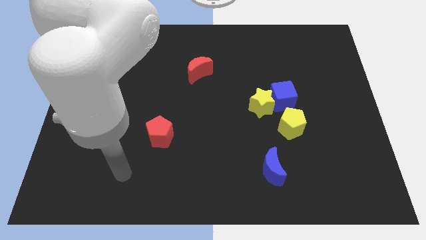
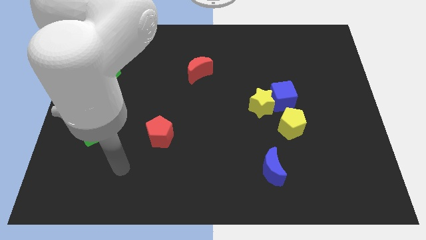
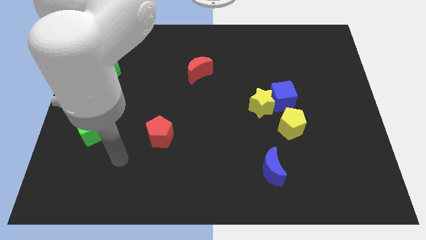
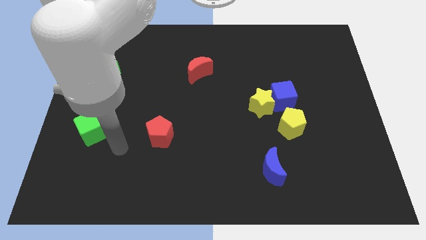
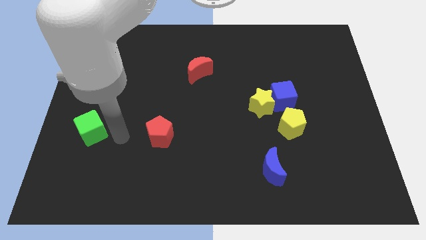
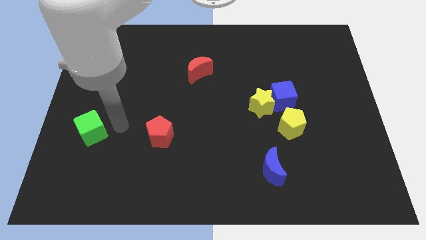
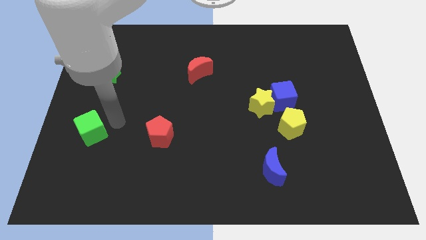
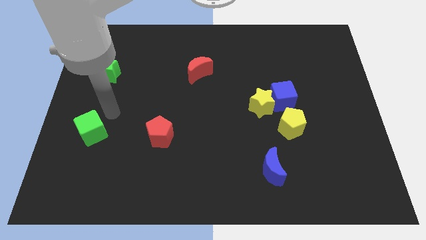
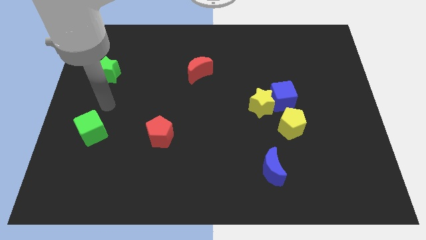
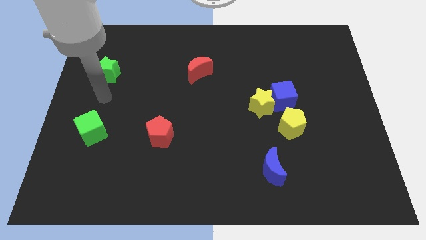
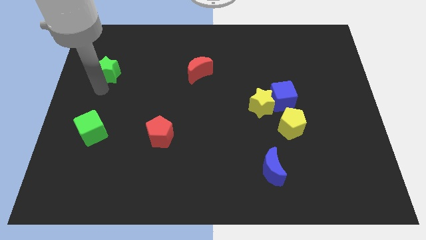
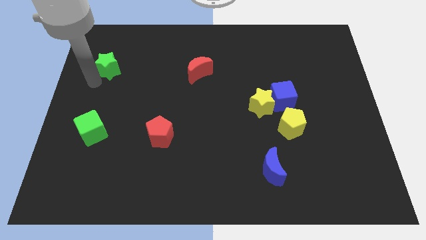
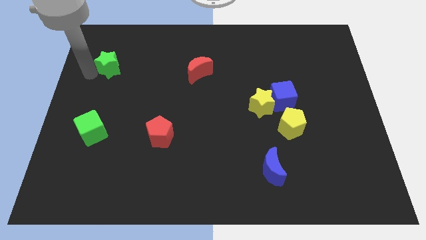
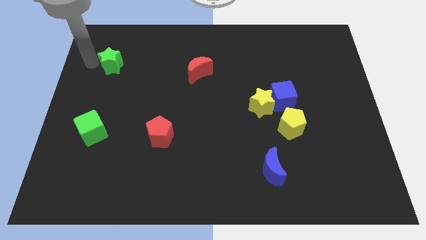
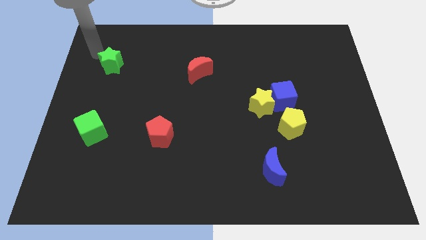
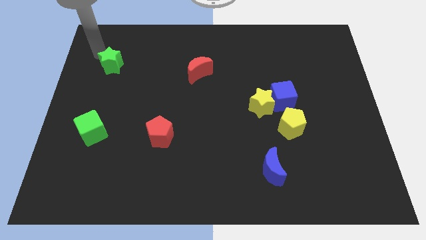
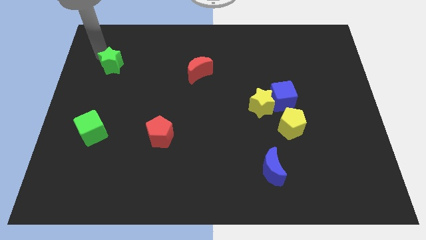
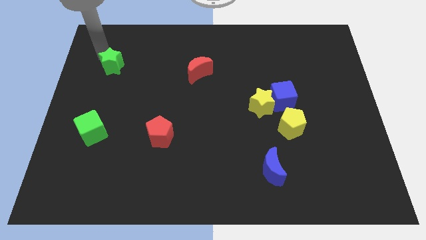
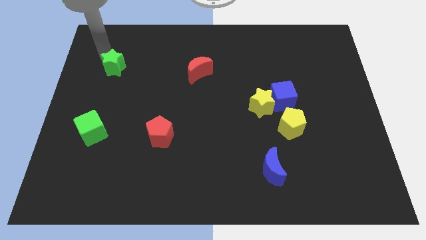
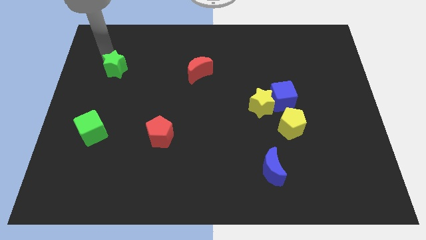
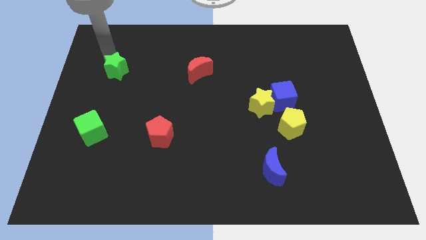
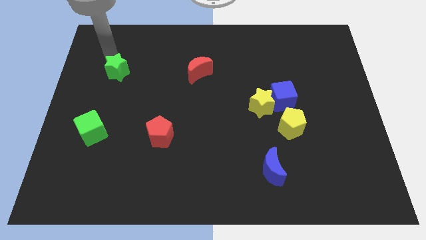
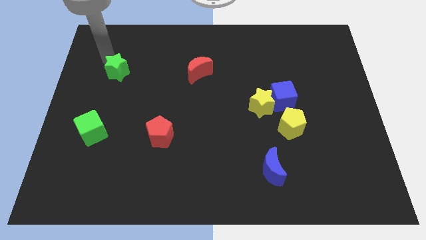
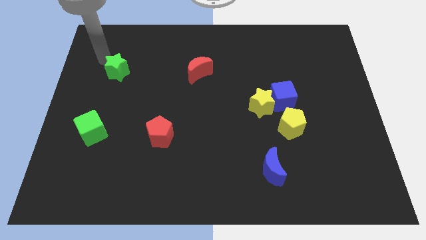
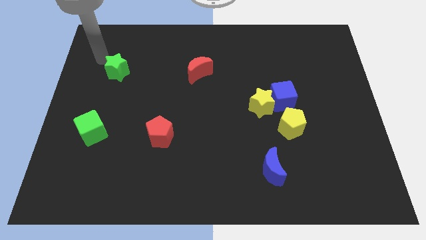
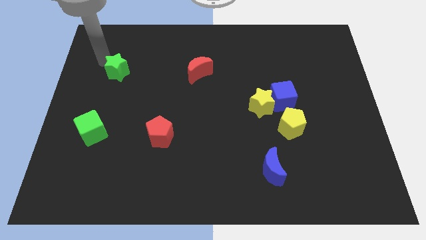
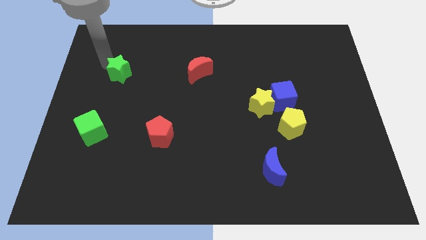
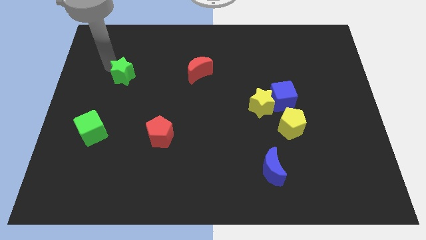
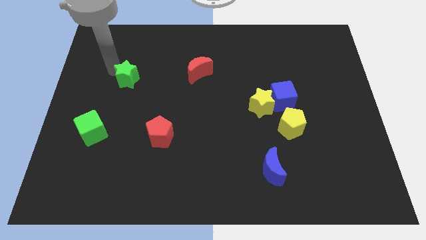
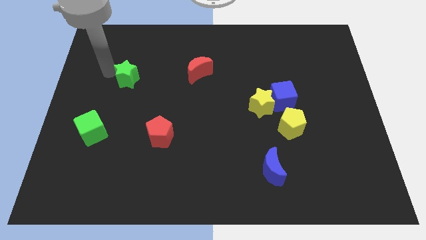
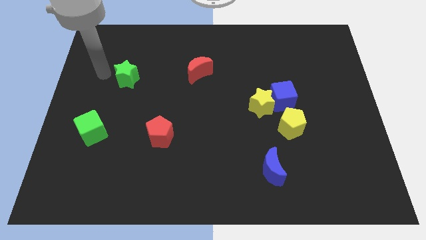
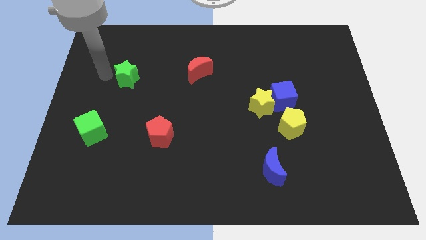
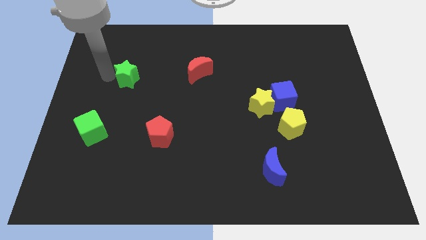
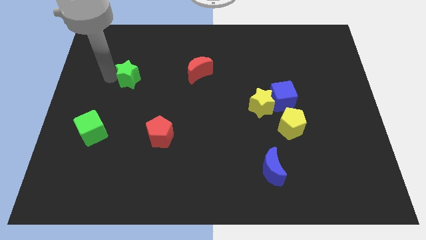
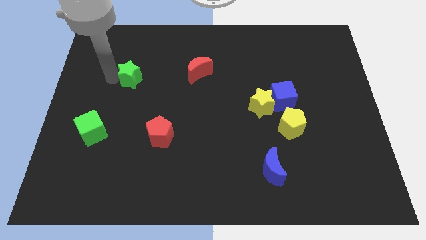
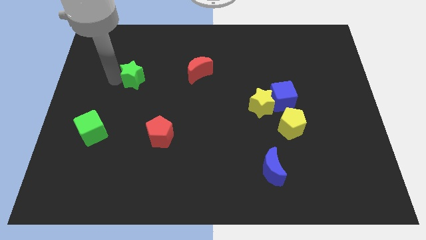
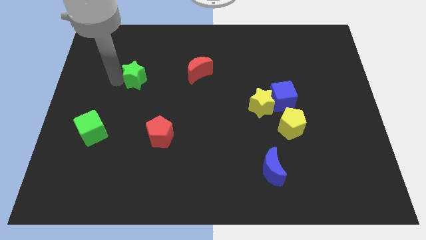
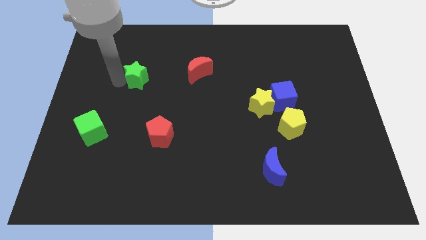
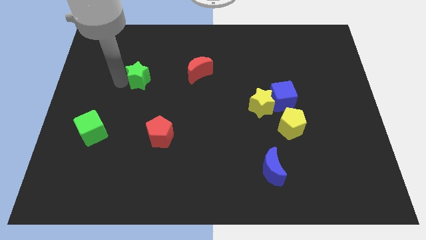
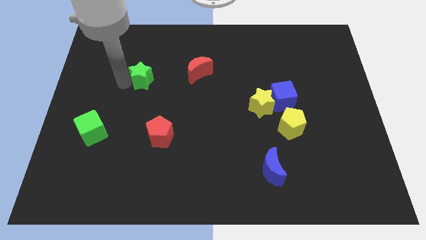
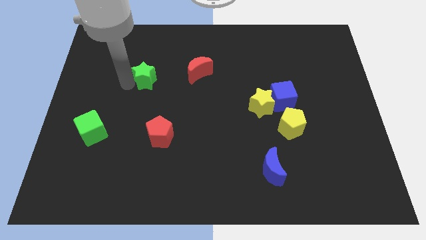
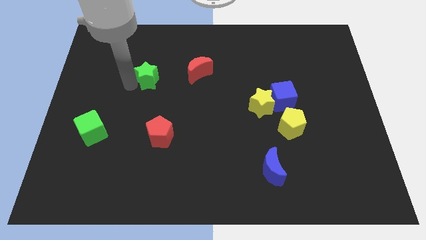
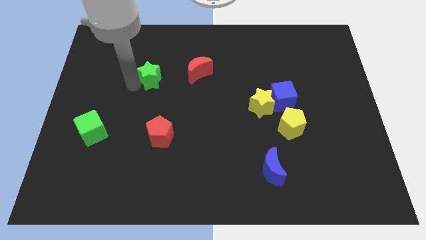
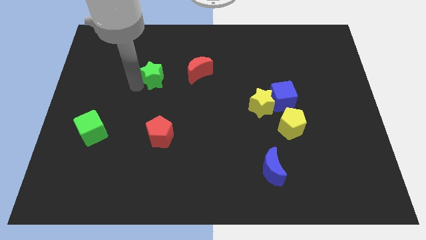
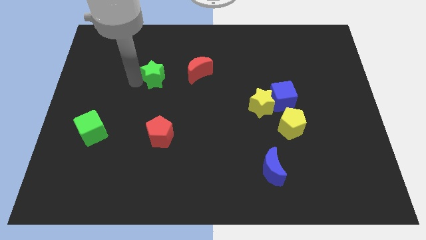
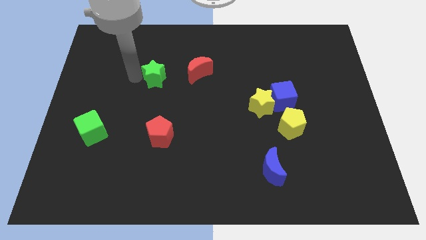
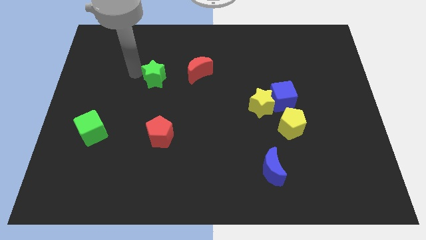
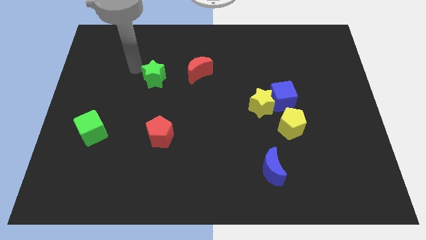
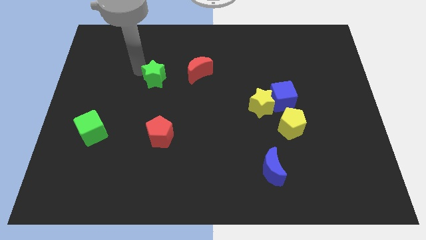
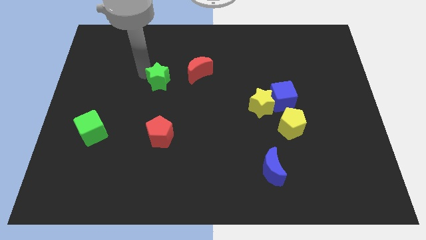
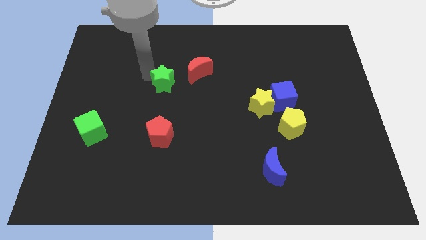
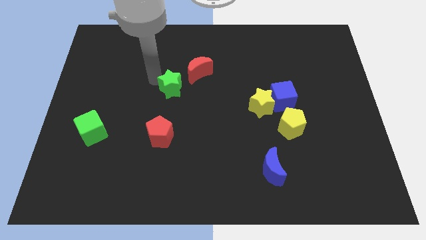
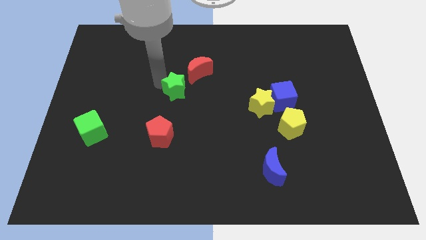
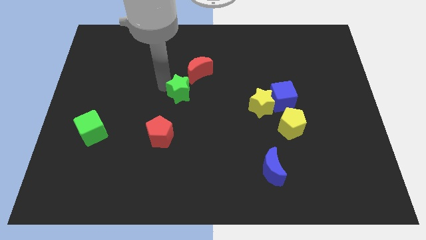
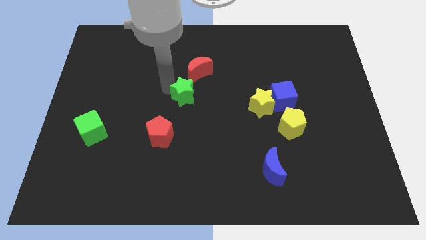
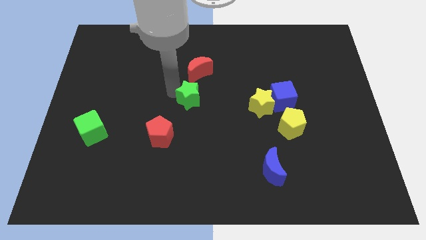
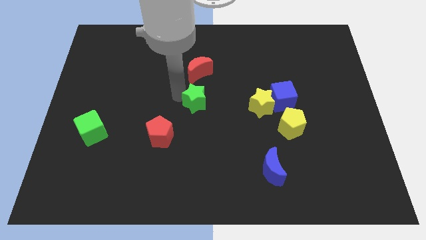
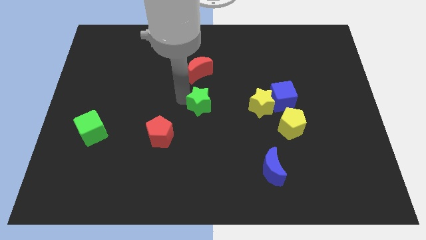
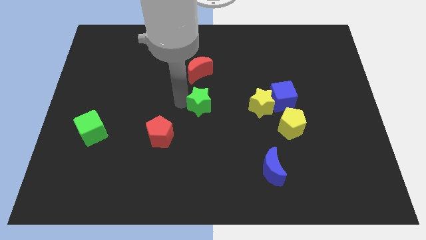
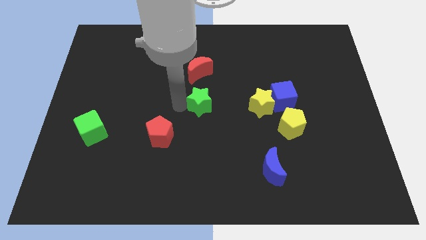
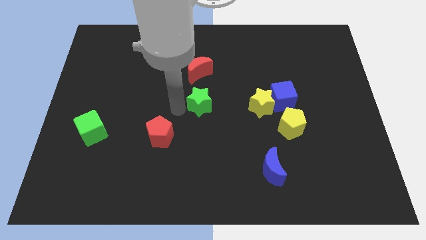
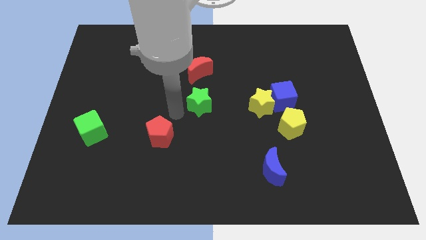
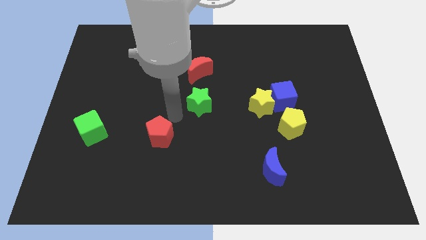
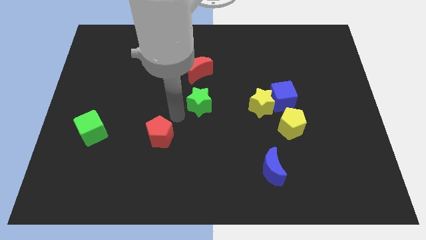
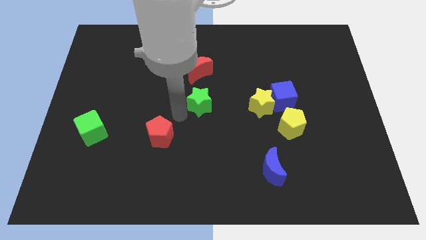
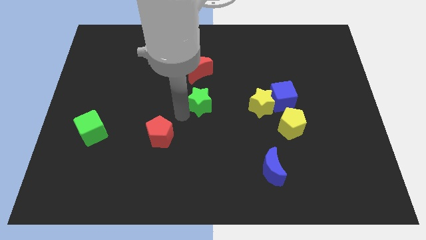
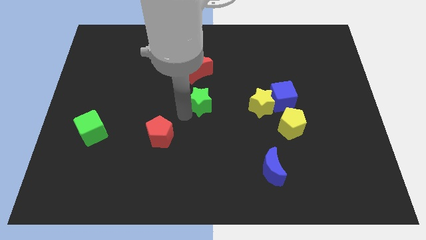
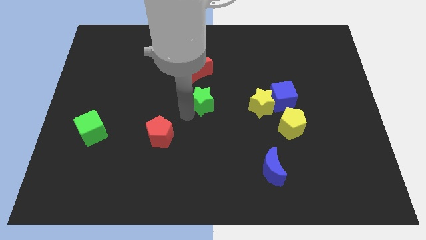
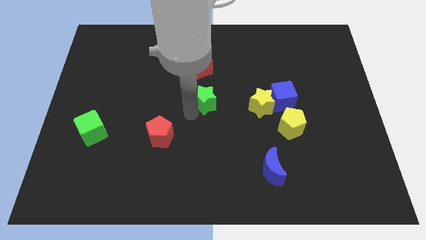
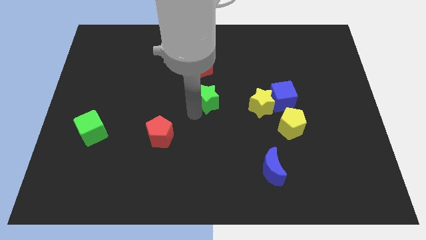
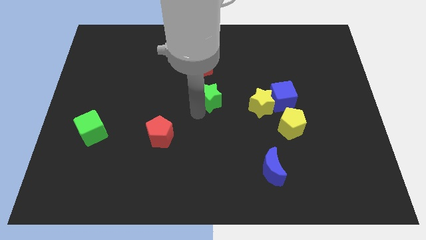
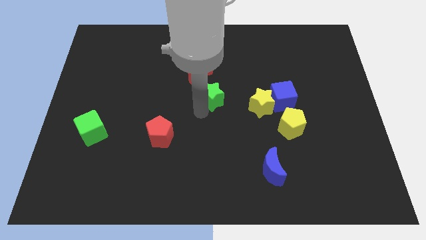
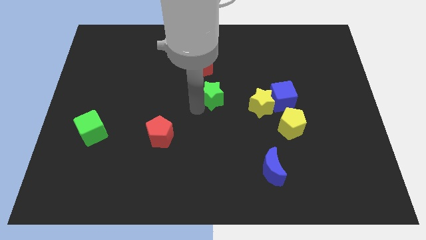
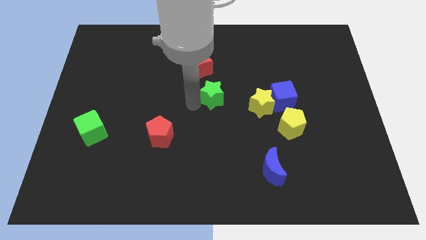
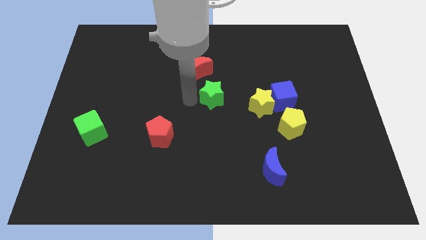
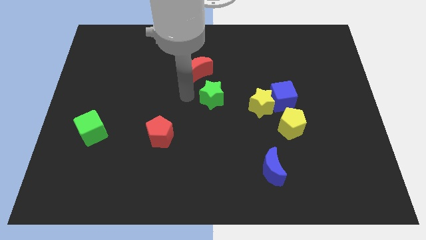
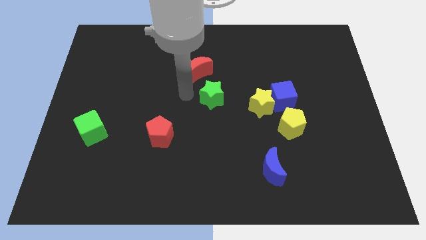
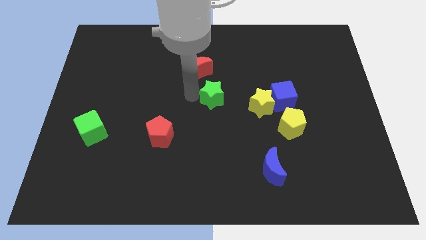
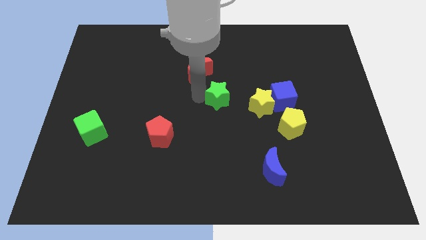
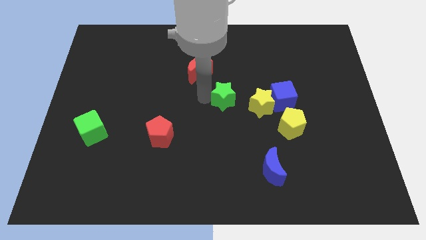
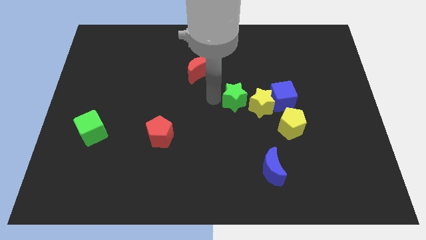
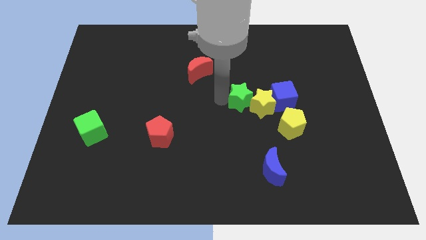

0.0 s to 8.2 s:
push the green star next to the yellow star

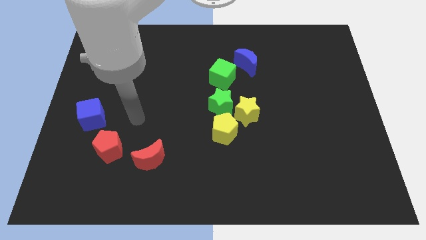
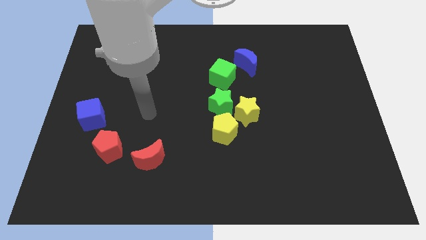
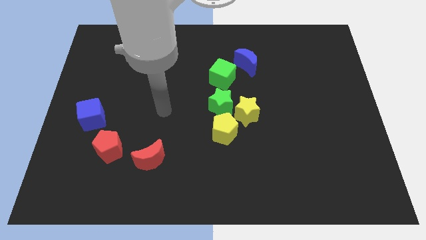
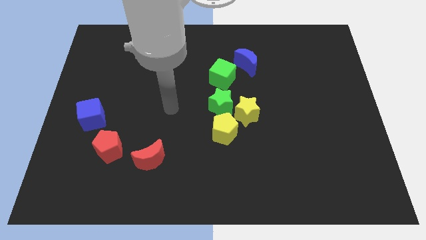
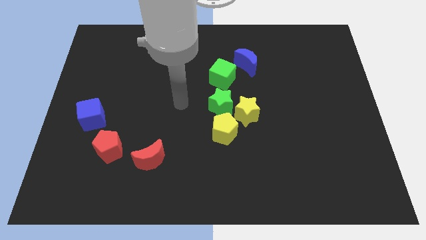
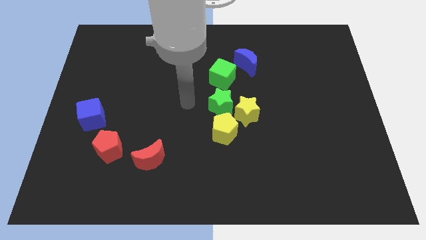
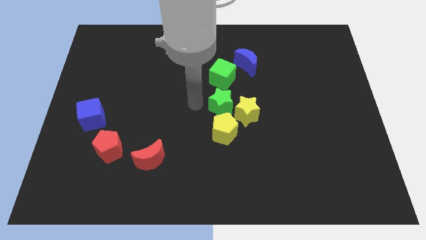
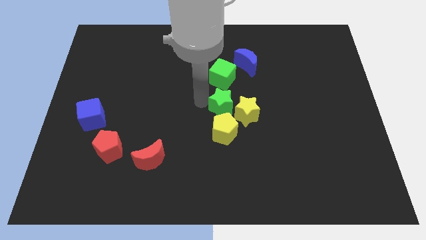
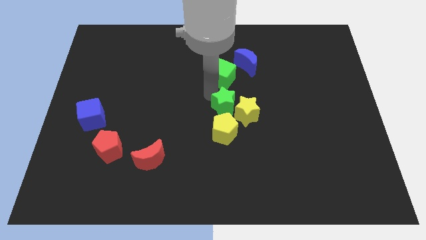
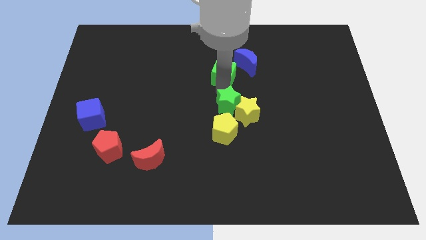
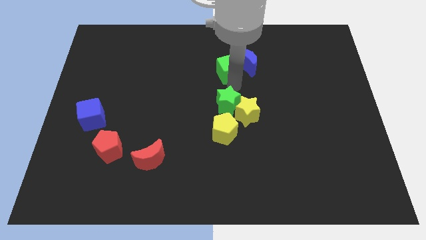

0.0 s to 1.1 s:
slide the blue moon to the green cube
